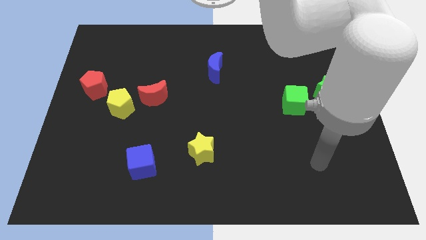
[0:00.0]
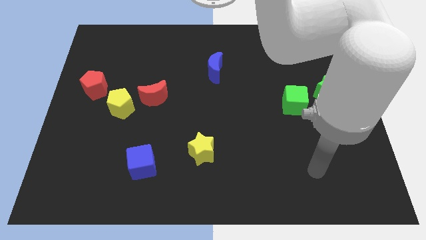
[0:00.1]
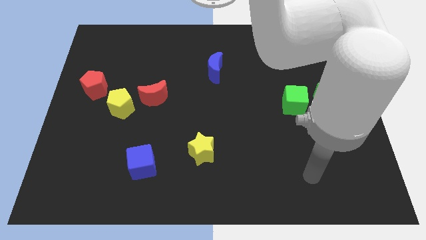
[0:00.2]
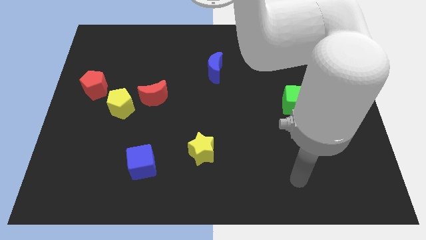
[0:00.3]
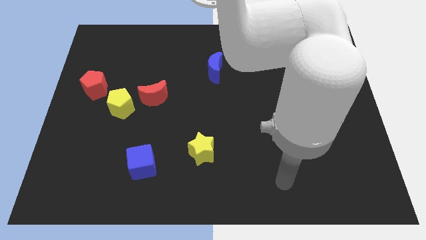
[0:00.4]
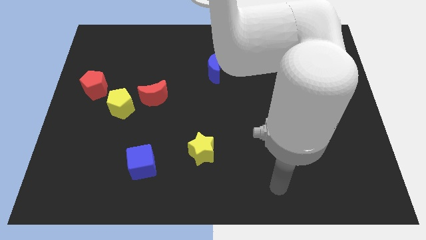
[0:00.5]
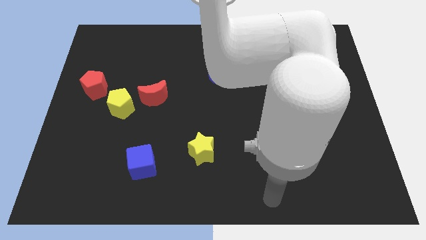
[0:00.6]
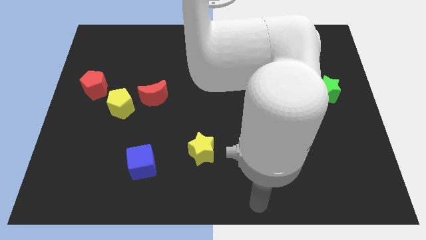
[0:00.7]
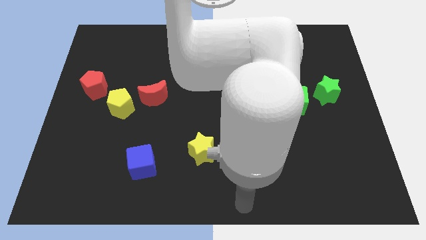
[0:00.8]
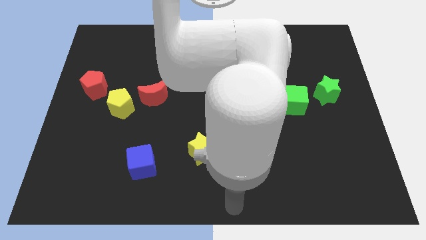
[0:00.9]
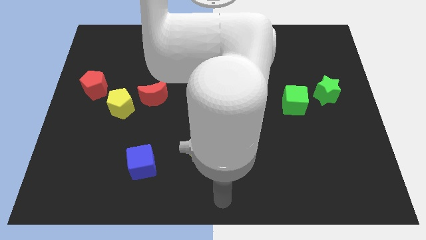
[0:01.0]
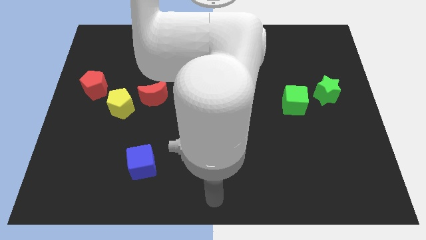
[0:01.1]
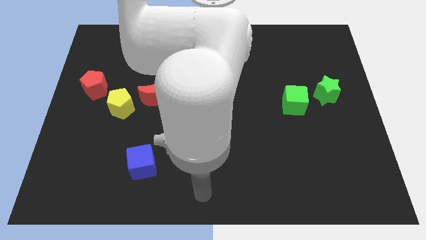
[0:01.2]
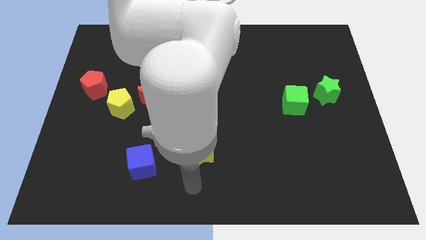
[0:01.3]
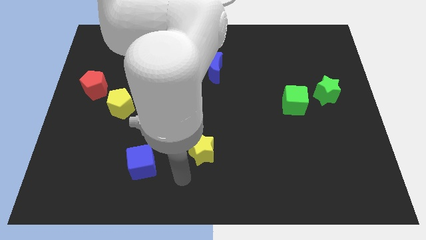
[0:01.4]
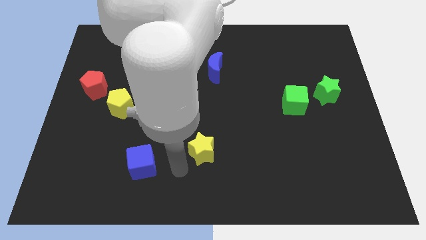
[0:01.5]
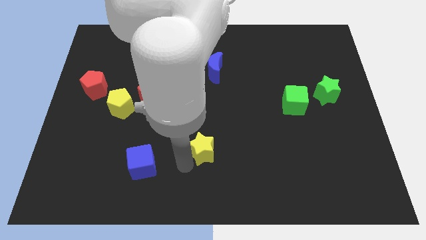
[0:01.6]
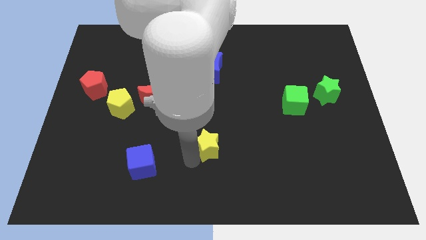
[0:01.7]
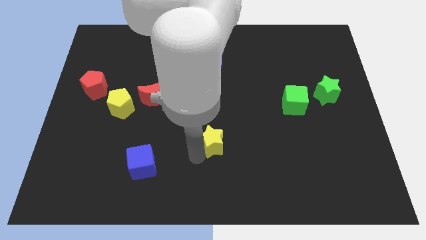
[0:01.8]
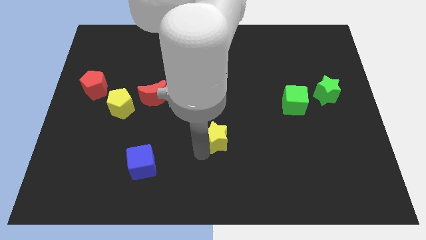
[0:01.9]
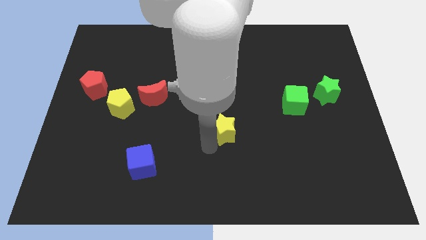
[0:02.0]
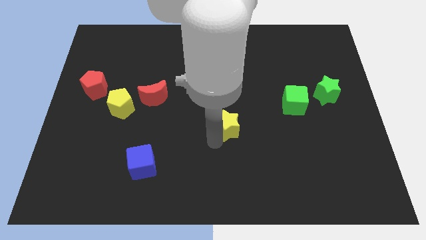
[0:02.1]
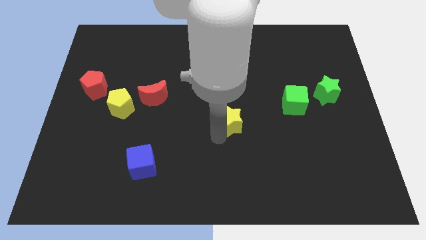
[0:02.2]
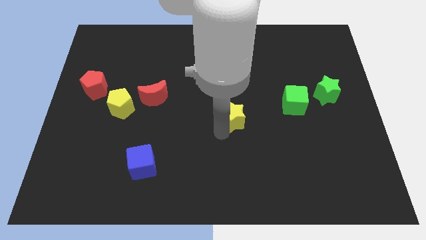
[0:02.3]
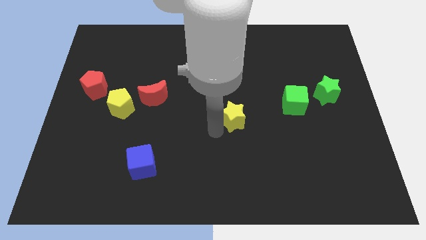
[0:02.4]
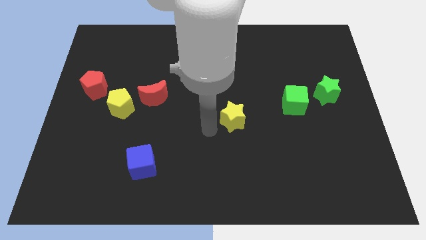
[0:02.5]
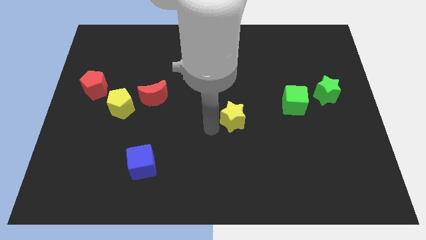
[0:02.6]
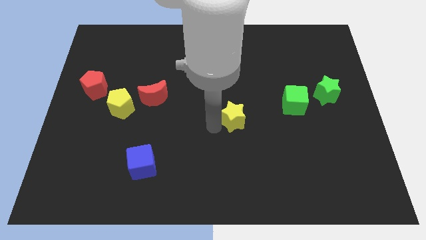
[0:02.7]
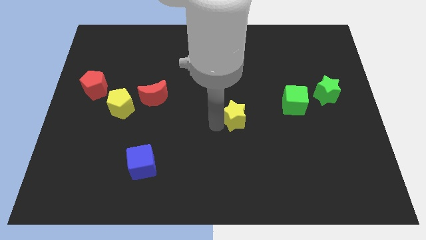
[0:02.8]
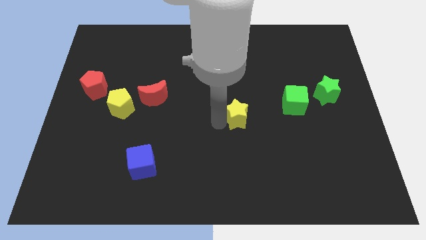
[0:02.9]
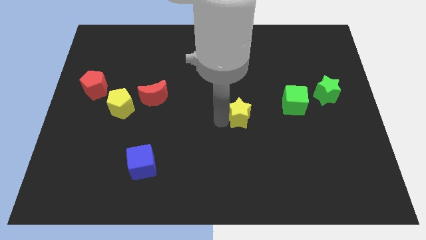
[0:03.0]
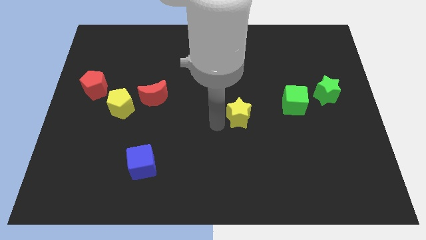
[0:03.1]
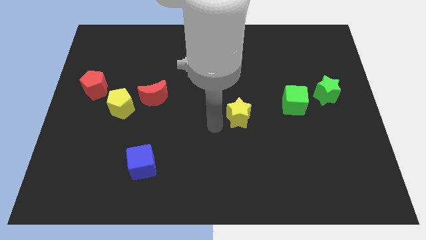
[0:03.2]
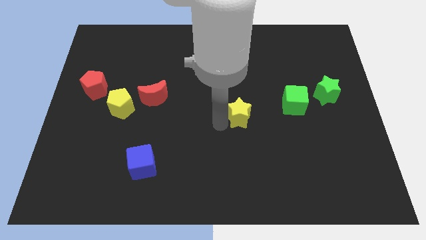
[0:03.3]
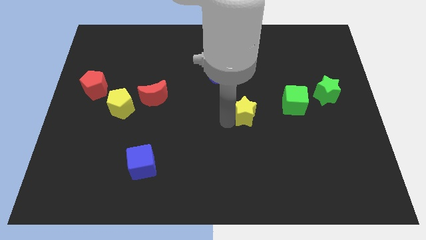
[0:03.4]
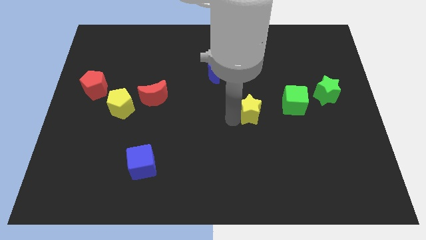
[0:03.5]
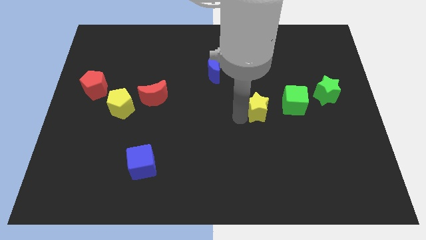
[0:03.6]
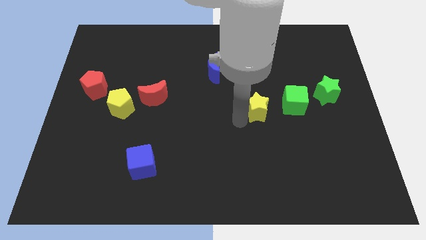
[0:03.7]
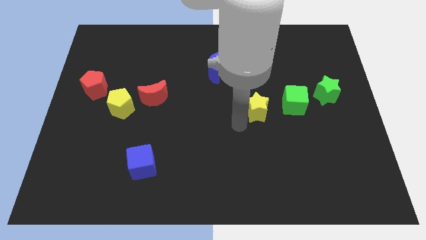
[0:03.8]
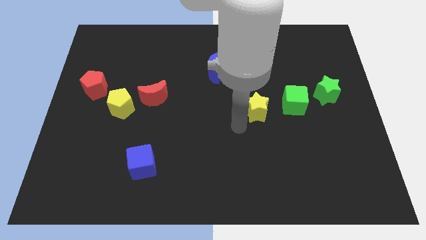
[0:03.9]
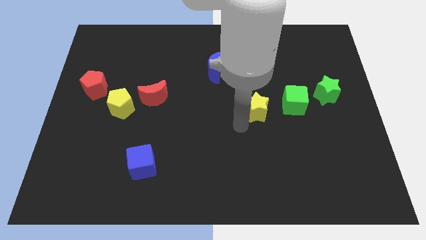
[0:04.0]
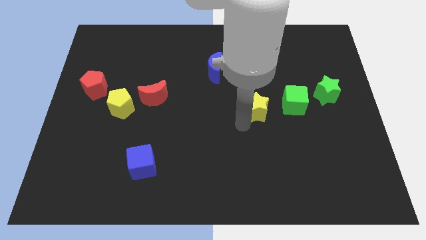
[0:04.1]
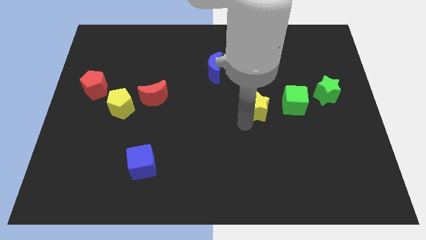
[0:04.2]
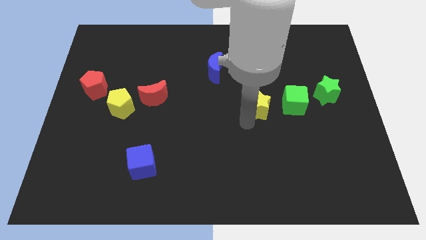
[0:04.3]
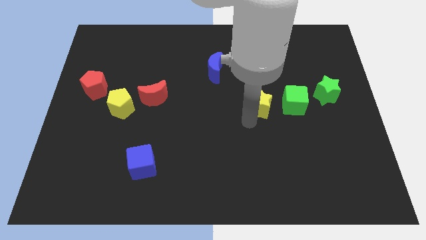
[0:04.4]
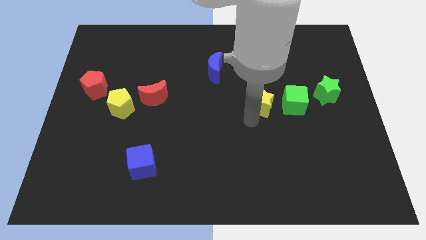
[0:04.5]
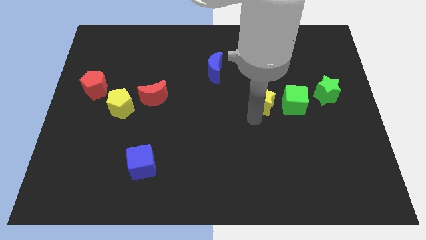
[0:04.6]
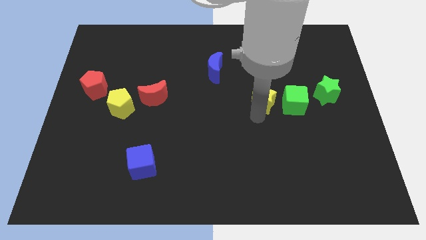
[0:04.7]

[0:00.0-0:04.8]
move the yellow star diagonally up and to the right

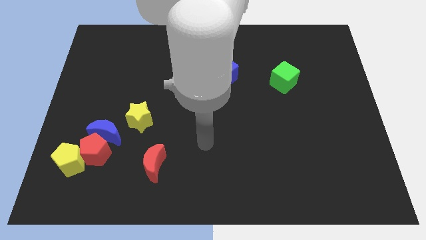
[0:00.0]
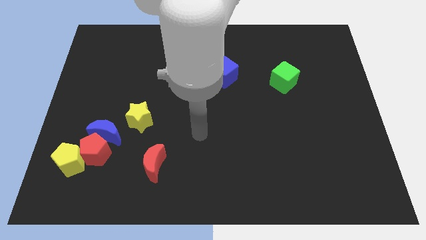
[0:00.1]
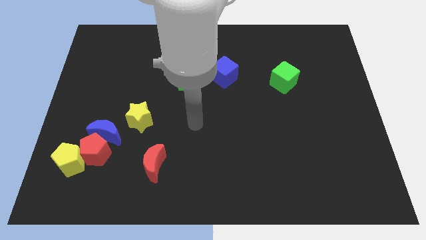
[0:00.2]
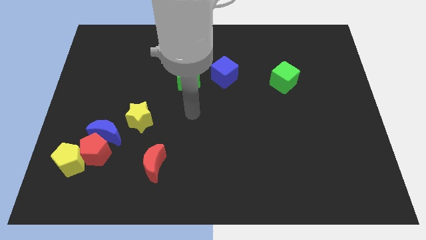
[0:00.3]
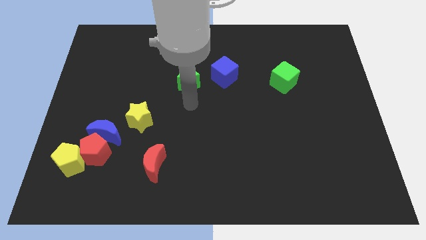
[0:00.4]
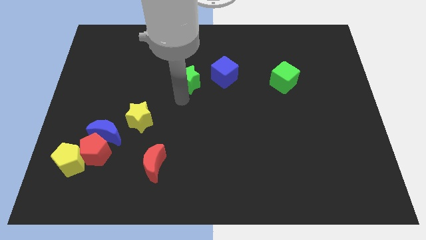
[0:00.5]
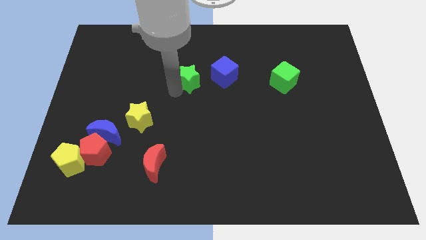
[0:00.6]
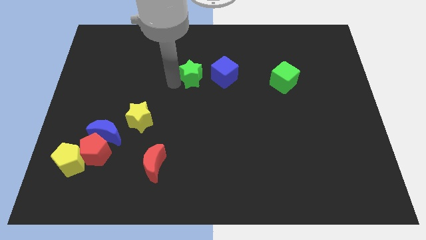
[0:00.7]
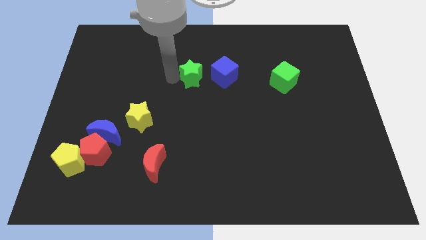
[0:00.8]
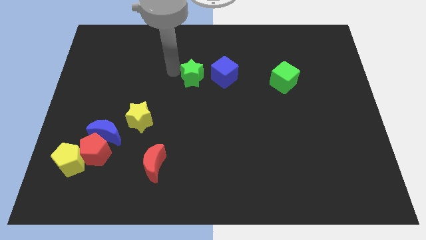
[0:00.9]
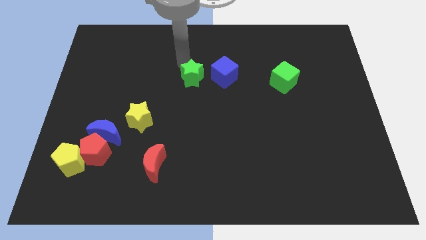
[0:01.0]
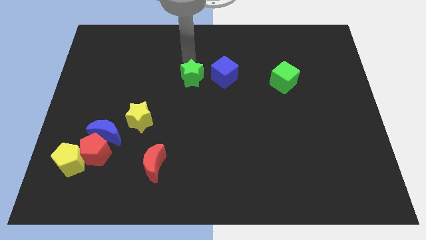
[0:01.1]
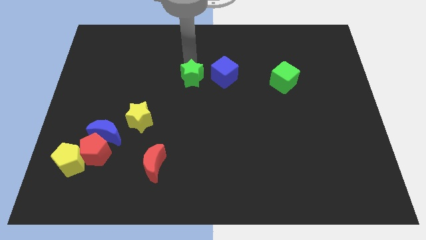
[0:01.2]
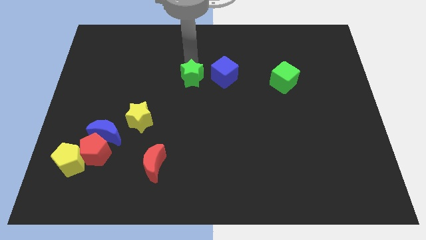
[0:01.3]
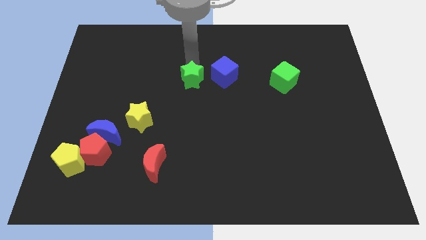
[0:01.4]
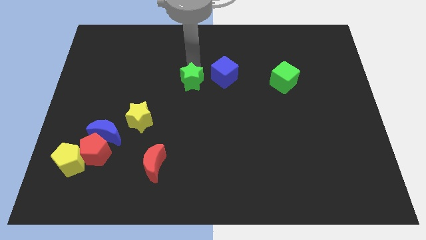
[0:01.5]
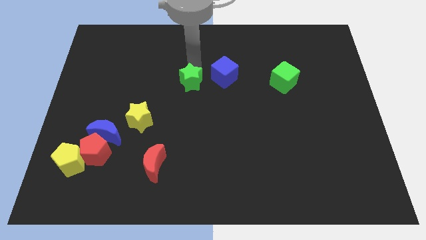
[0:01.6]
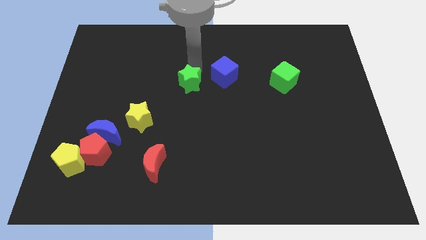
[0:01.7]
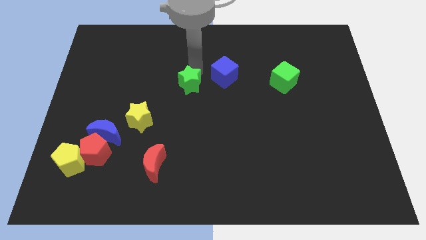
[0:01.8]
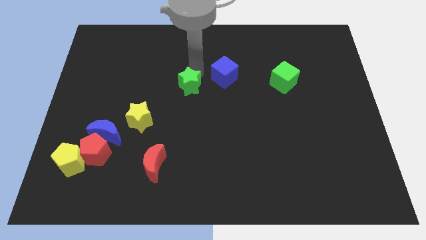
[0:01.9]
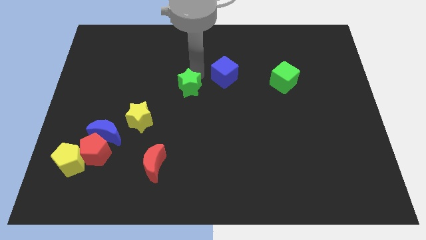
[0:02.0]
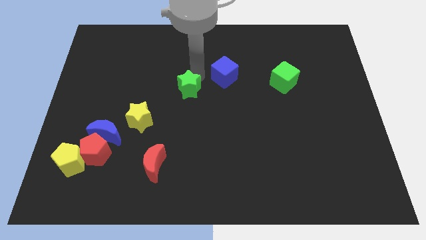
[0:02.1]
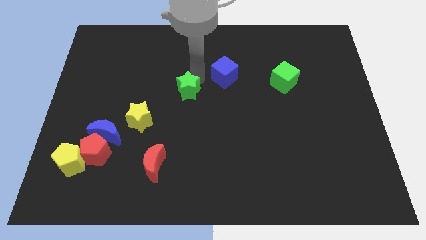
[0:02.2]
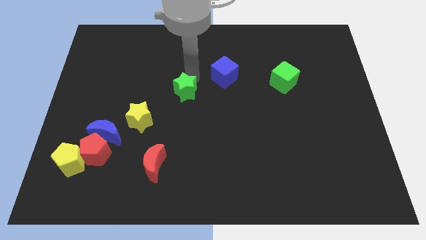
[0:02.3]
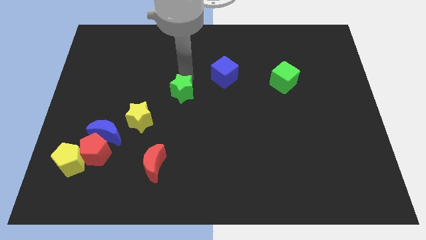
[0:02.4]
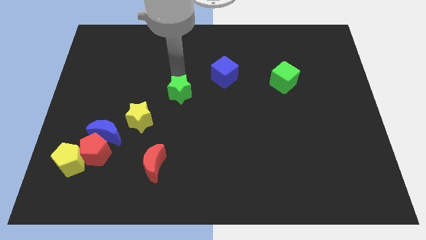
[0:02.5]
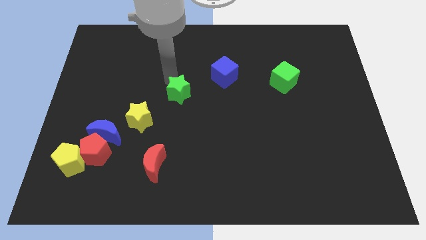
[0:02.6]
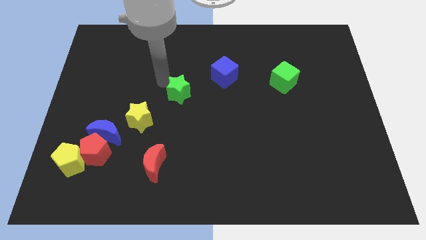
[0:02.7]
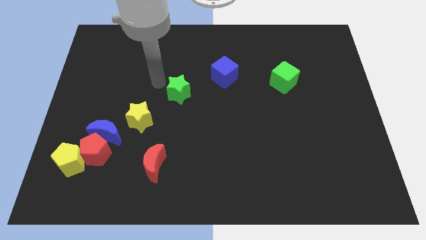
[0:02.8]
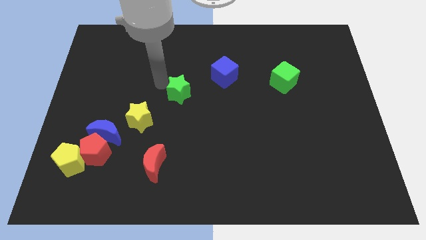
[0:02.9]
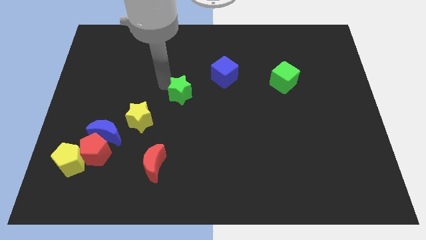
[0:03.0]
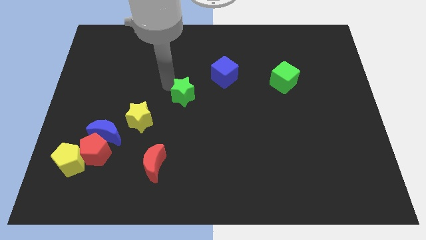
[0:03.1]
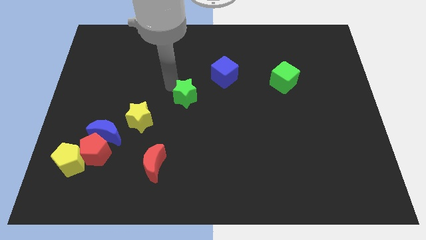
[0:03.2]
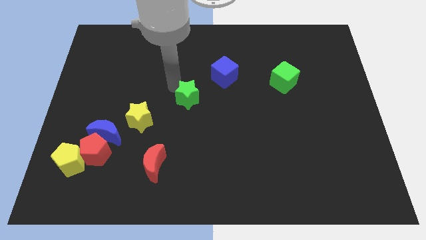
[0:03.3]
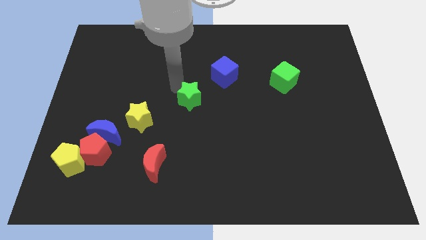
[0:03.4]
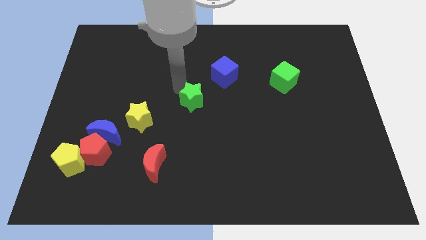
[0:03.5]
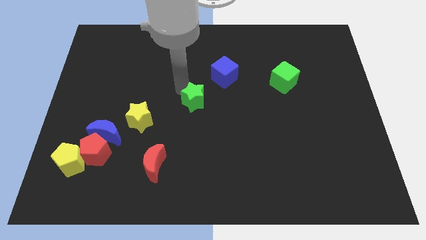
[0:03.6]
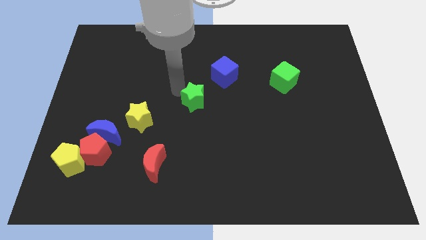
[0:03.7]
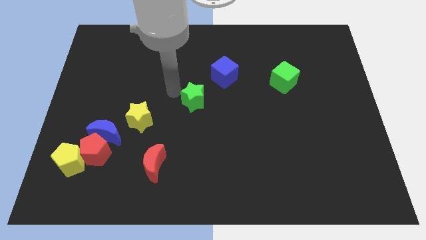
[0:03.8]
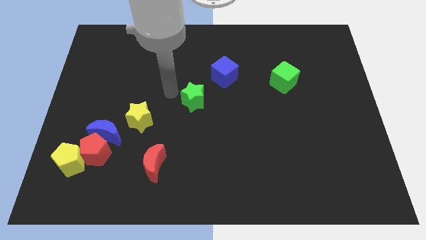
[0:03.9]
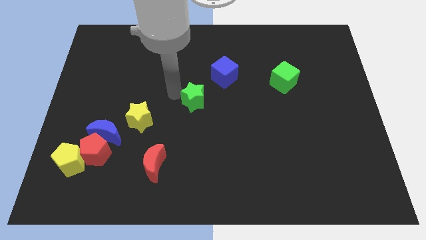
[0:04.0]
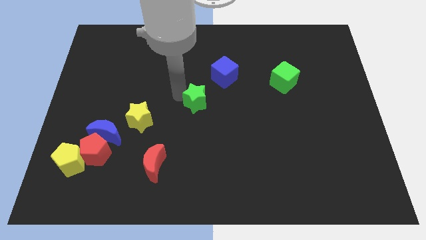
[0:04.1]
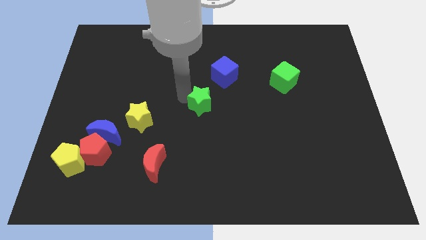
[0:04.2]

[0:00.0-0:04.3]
move the green star a little downwards and then to the right
